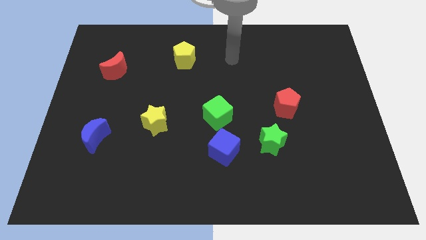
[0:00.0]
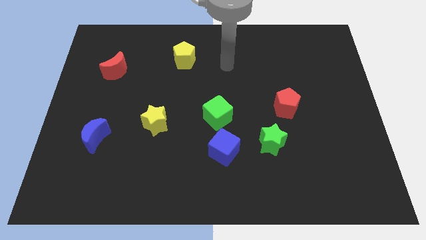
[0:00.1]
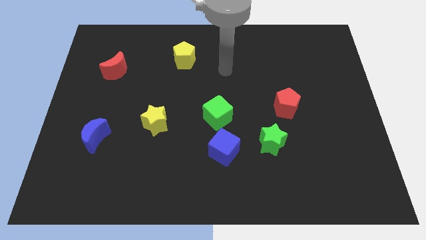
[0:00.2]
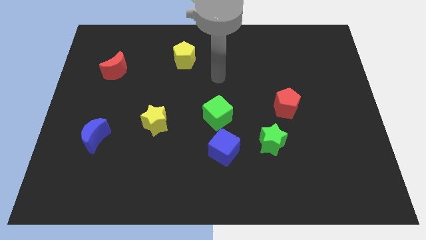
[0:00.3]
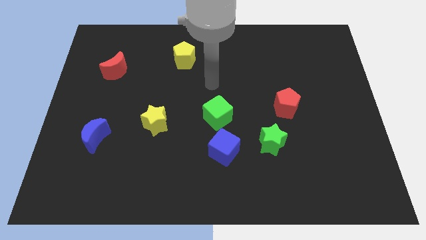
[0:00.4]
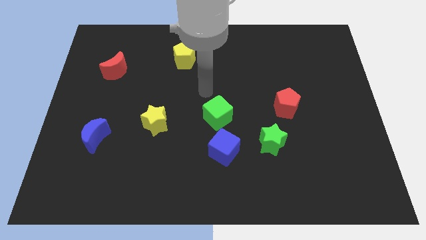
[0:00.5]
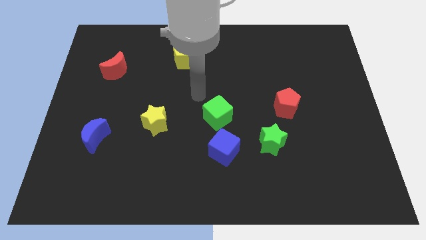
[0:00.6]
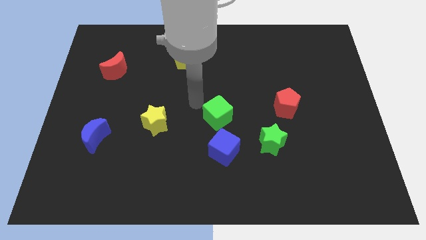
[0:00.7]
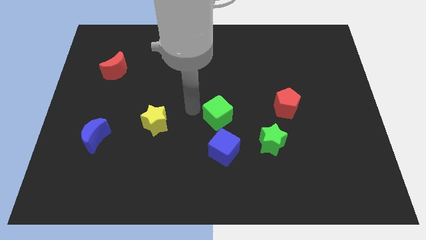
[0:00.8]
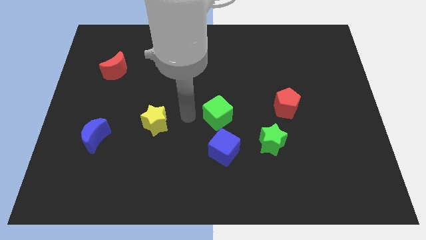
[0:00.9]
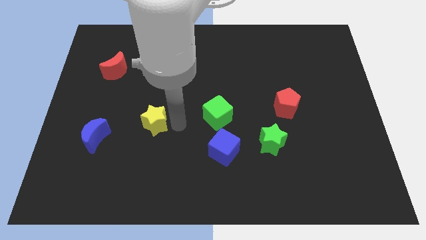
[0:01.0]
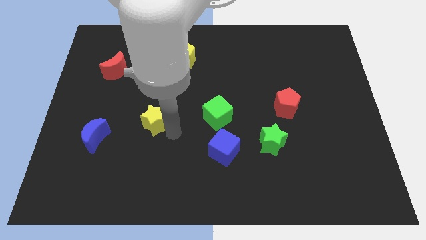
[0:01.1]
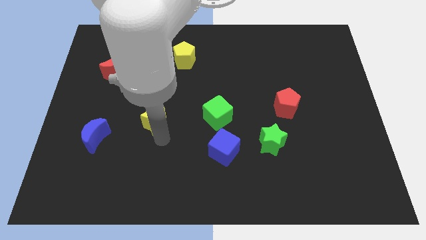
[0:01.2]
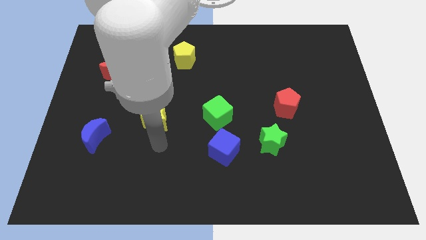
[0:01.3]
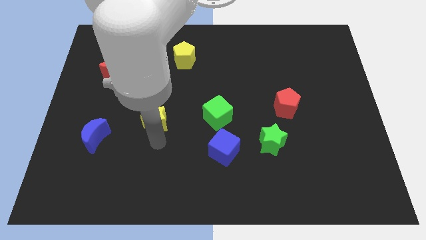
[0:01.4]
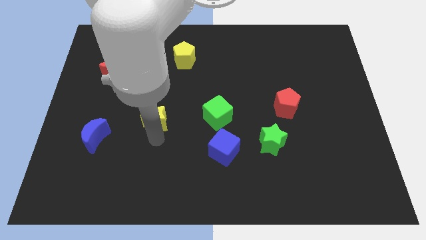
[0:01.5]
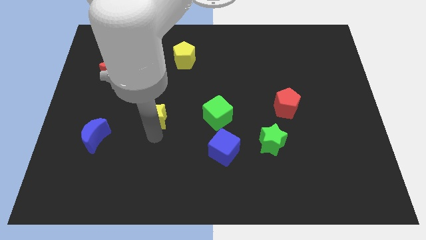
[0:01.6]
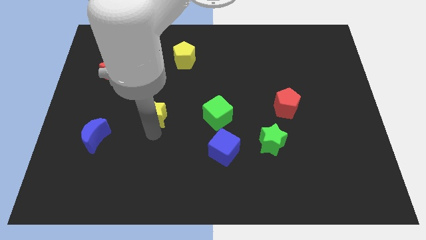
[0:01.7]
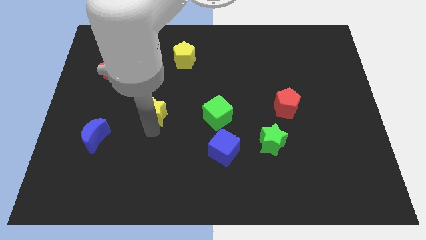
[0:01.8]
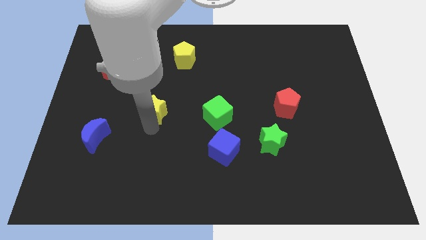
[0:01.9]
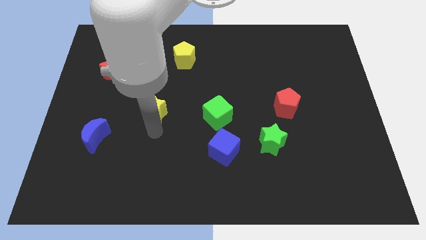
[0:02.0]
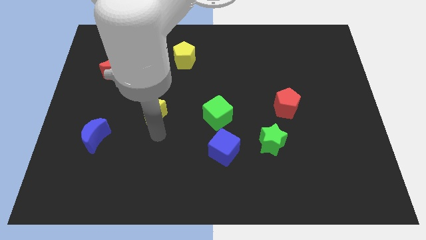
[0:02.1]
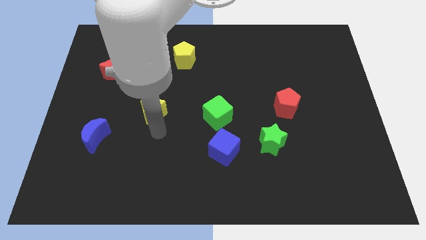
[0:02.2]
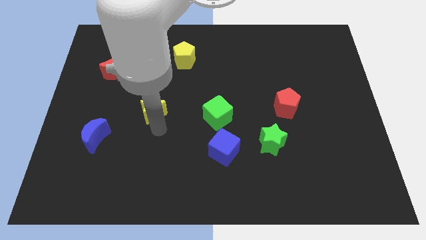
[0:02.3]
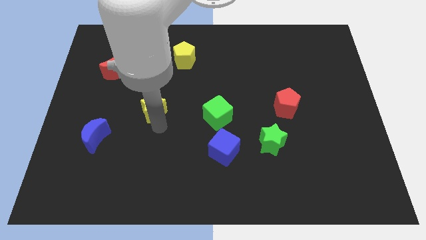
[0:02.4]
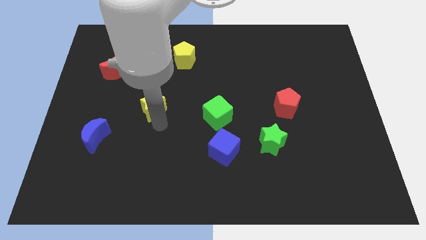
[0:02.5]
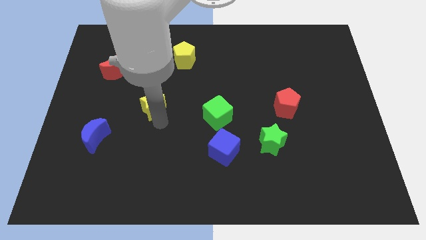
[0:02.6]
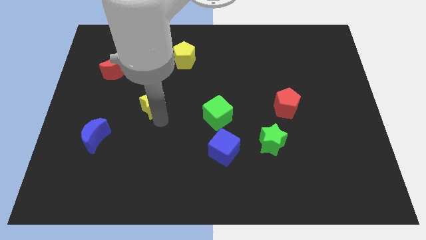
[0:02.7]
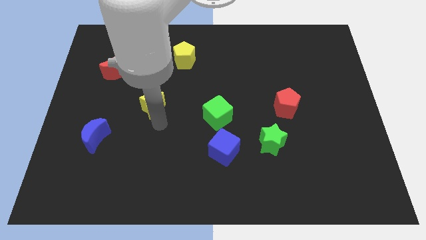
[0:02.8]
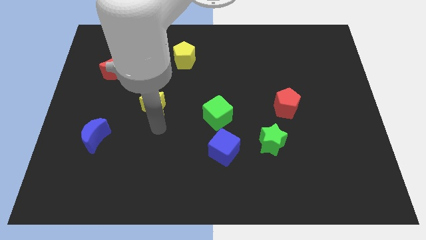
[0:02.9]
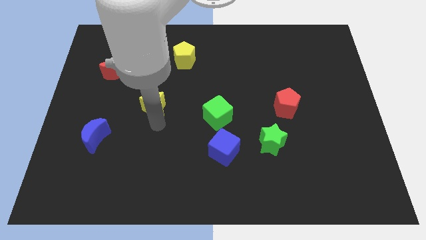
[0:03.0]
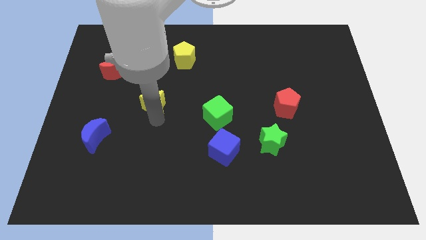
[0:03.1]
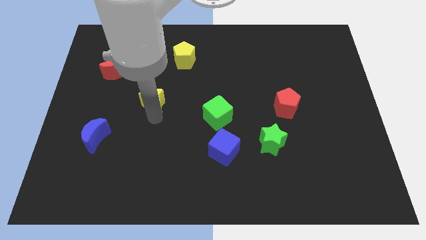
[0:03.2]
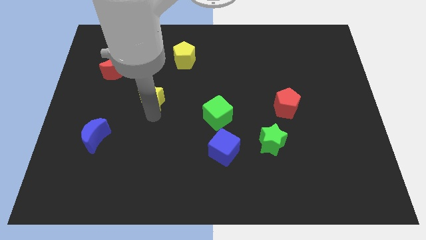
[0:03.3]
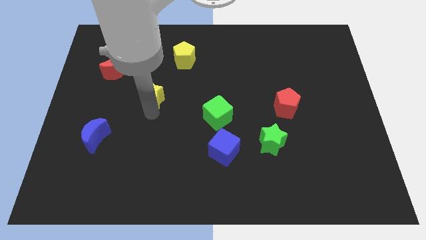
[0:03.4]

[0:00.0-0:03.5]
move the yellow star up somewhat

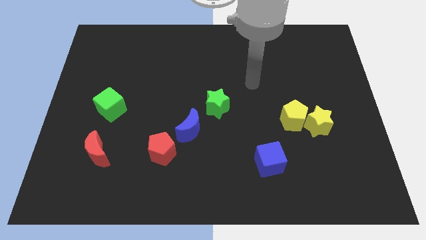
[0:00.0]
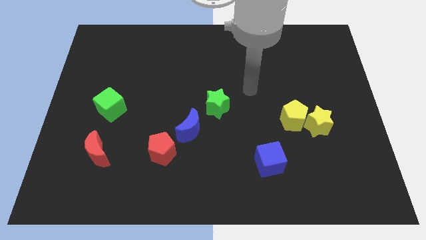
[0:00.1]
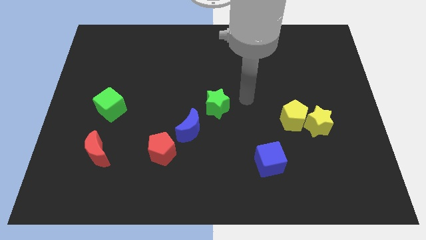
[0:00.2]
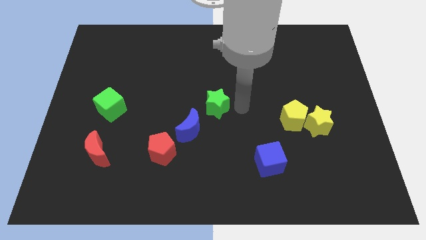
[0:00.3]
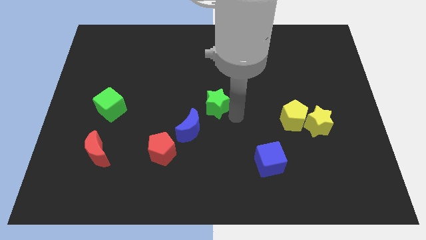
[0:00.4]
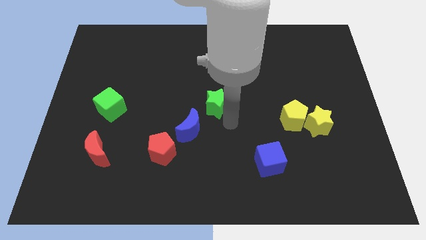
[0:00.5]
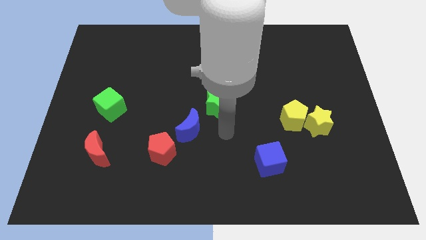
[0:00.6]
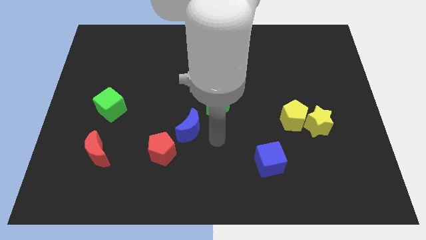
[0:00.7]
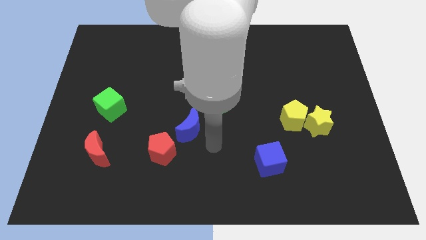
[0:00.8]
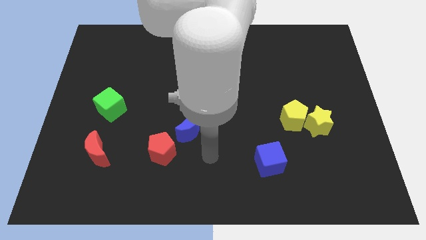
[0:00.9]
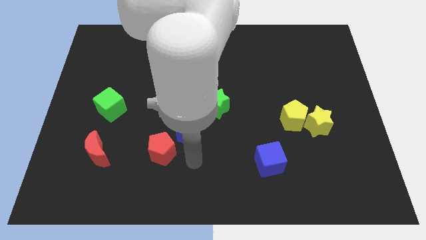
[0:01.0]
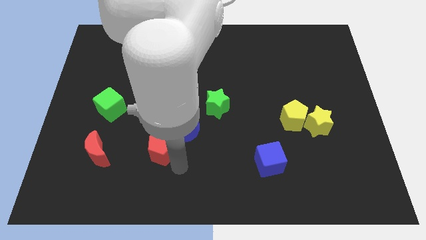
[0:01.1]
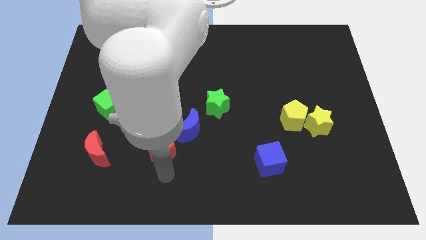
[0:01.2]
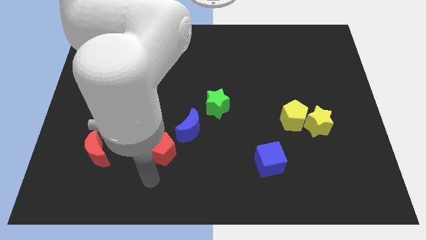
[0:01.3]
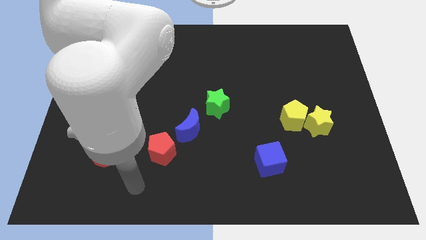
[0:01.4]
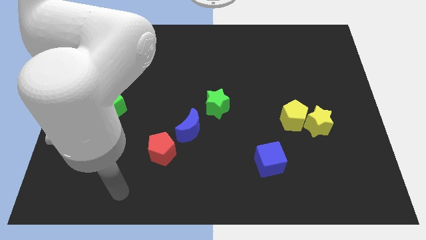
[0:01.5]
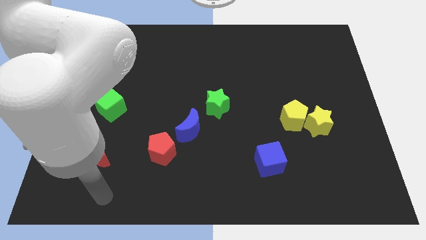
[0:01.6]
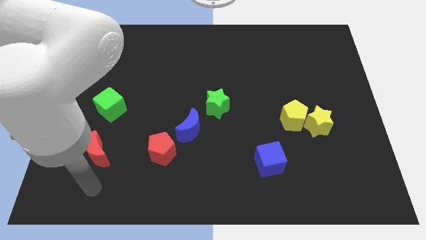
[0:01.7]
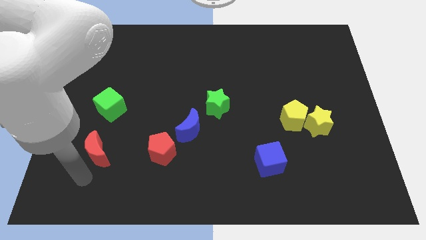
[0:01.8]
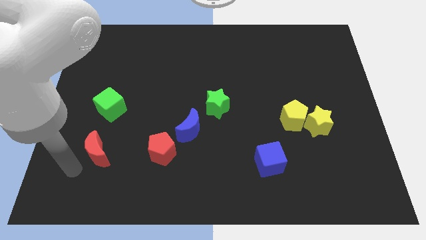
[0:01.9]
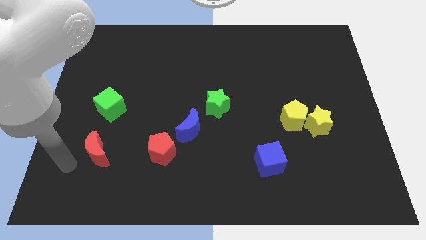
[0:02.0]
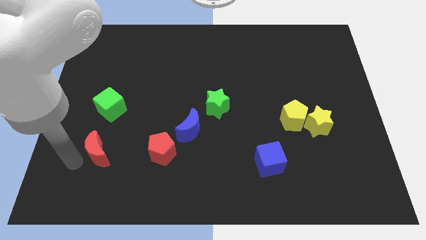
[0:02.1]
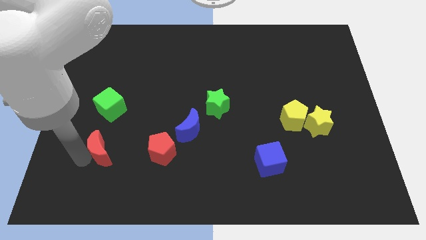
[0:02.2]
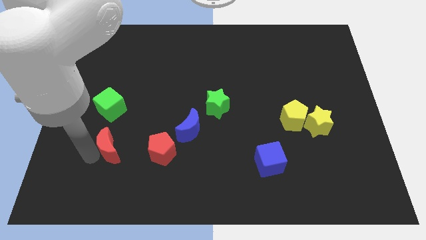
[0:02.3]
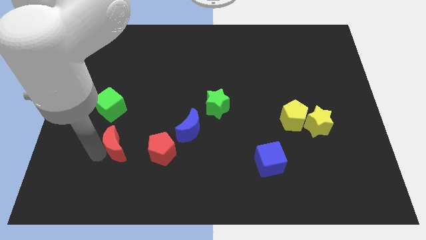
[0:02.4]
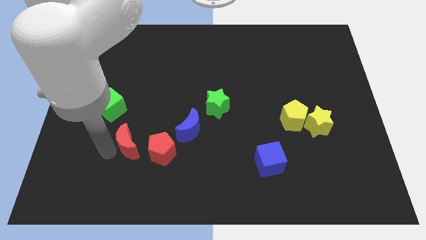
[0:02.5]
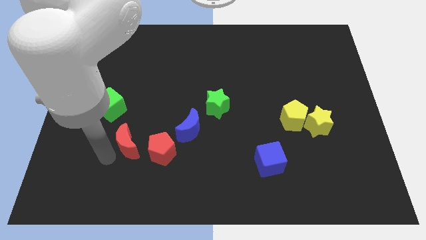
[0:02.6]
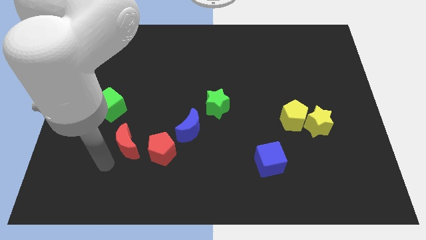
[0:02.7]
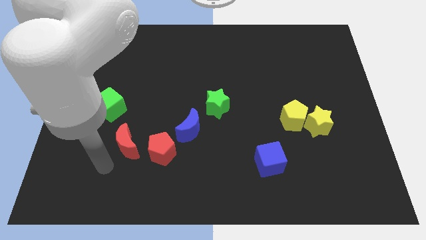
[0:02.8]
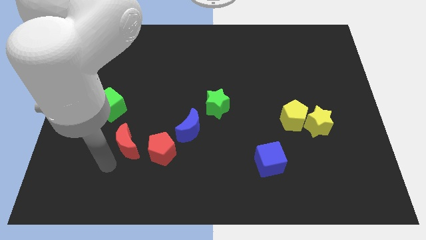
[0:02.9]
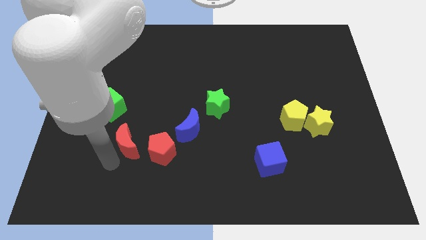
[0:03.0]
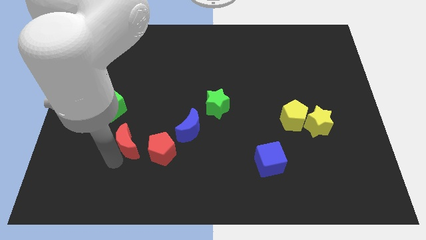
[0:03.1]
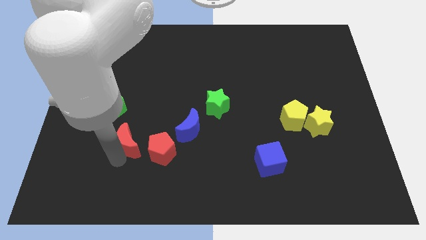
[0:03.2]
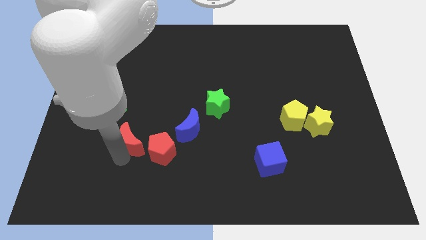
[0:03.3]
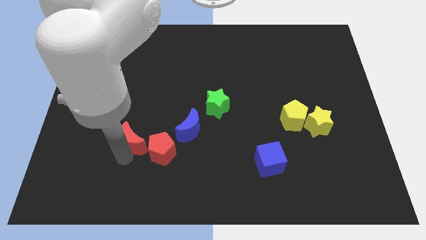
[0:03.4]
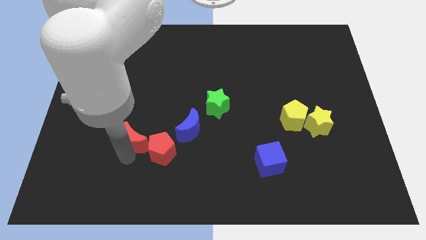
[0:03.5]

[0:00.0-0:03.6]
slightly move the red moon diagonally upwards and right

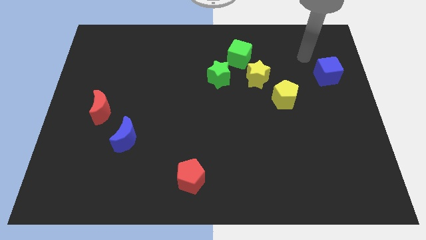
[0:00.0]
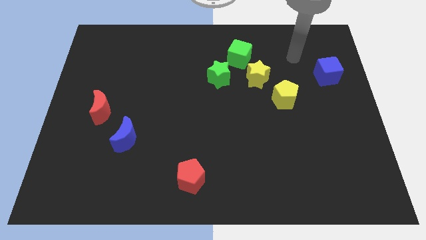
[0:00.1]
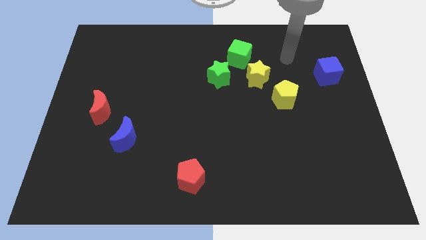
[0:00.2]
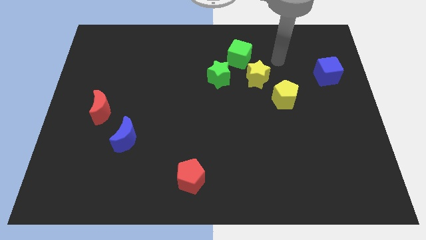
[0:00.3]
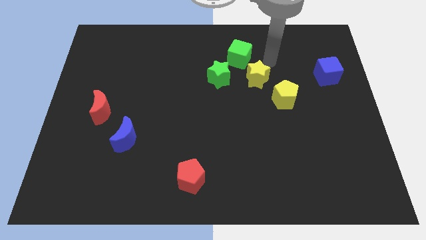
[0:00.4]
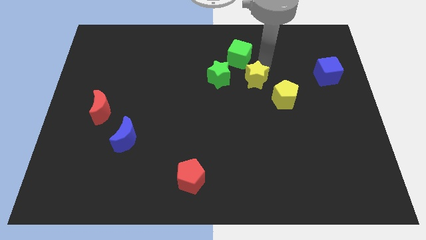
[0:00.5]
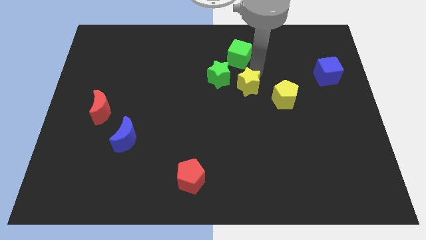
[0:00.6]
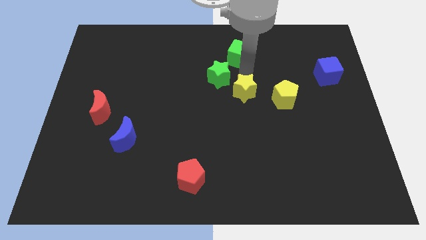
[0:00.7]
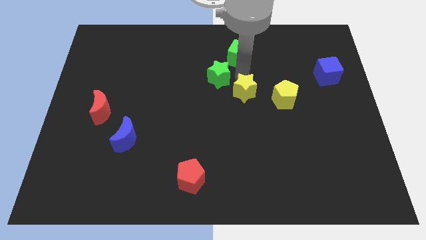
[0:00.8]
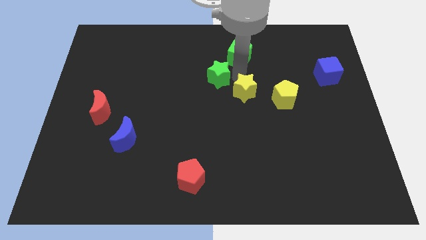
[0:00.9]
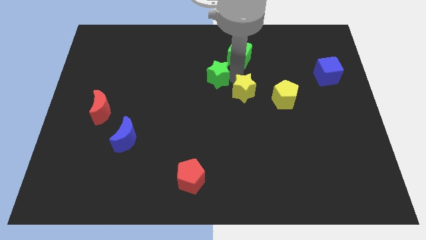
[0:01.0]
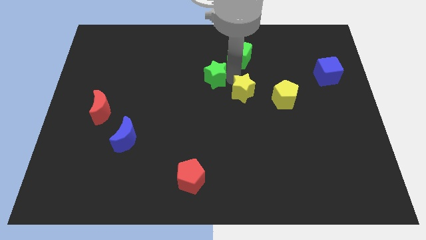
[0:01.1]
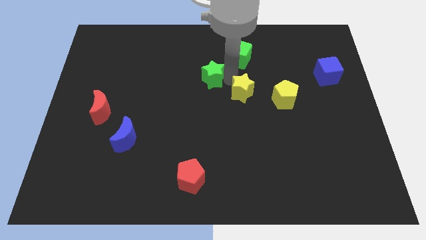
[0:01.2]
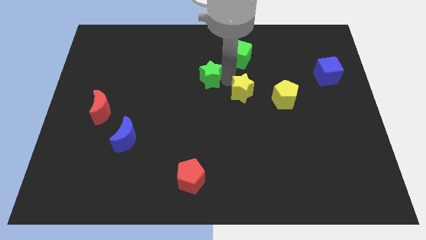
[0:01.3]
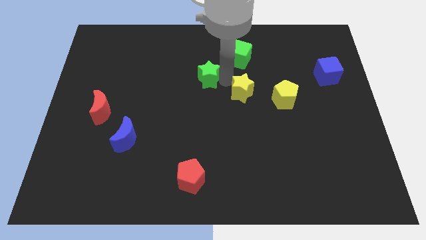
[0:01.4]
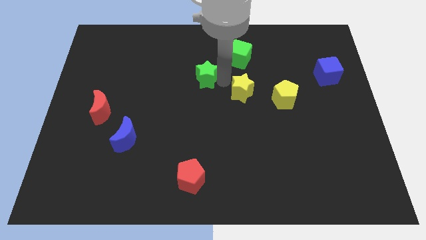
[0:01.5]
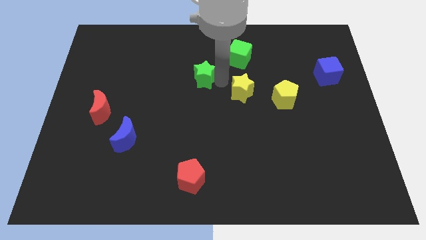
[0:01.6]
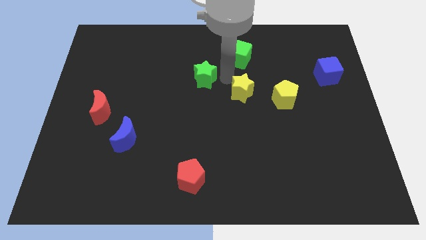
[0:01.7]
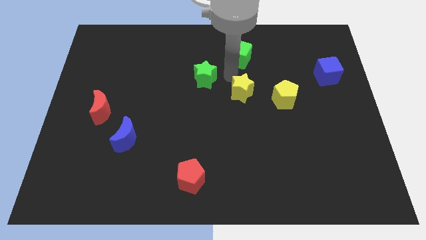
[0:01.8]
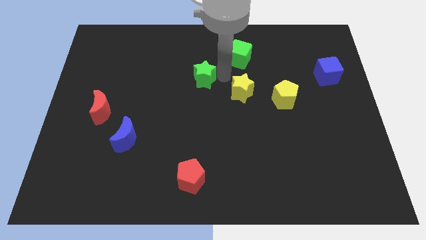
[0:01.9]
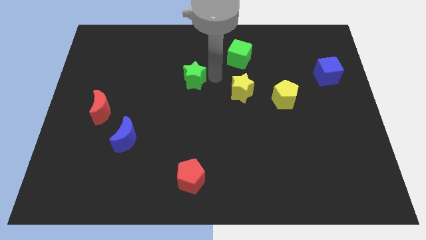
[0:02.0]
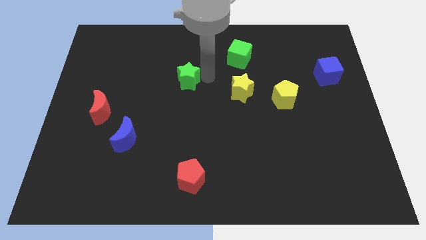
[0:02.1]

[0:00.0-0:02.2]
move the green star a bit left
